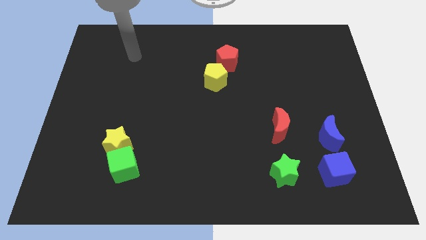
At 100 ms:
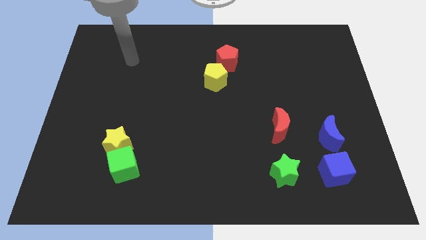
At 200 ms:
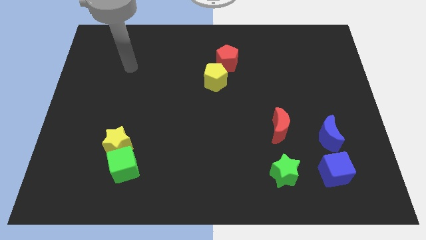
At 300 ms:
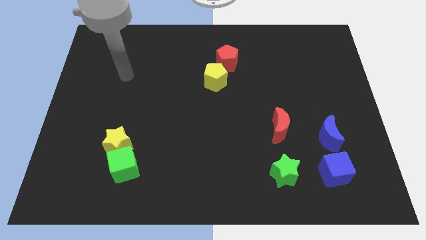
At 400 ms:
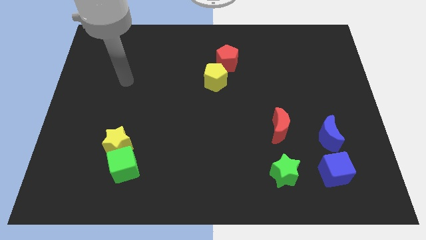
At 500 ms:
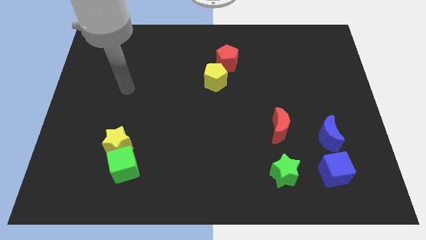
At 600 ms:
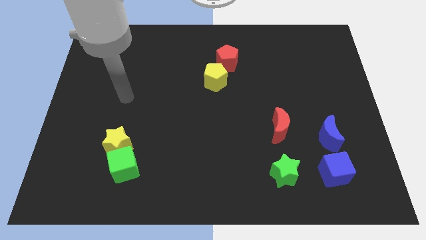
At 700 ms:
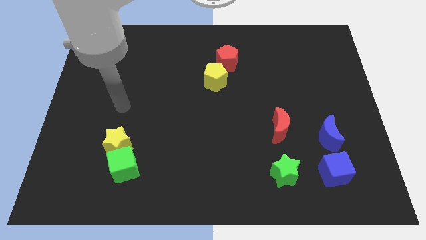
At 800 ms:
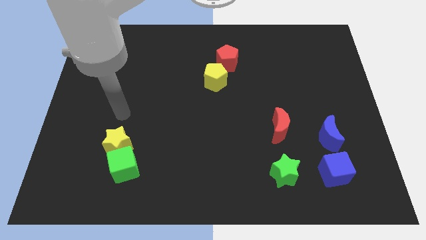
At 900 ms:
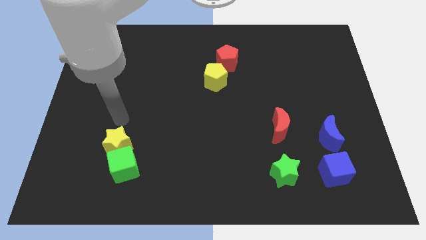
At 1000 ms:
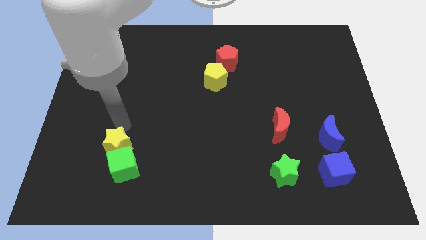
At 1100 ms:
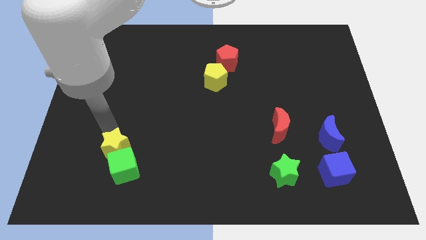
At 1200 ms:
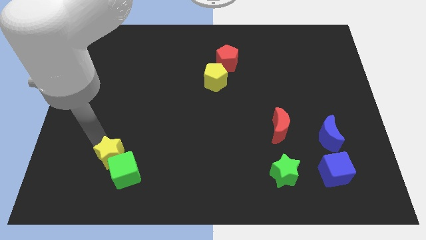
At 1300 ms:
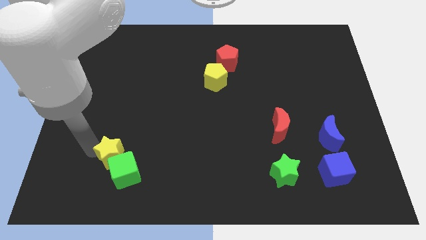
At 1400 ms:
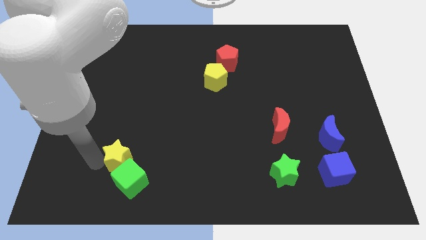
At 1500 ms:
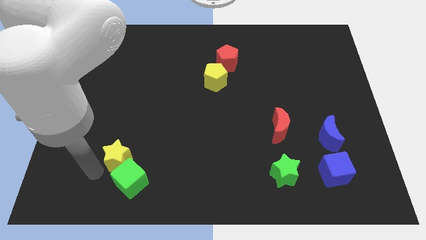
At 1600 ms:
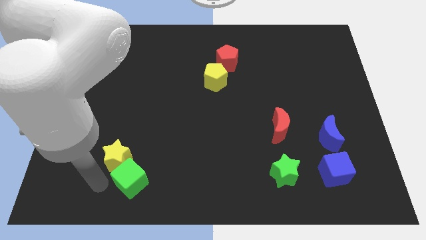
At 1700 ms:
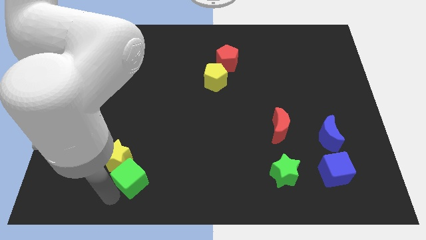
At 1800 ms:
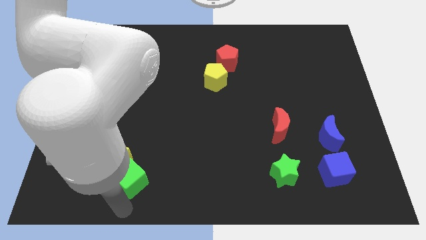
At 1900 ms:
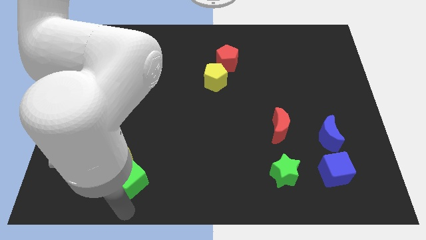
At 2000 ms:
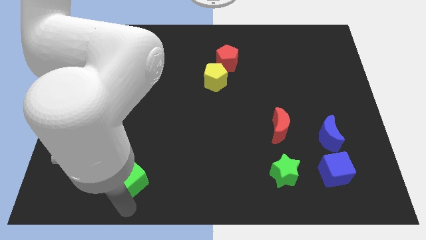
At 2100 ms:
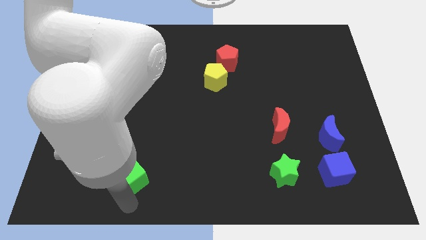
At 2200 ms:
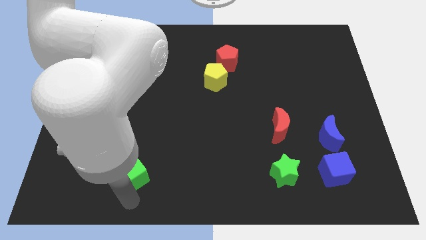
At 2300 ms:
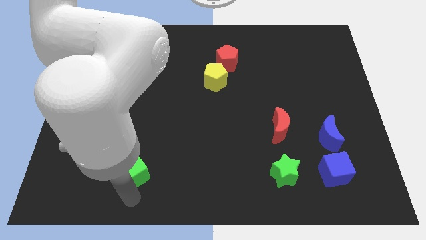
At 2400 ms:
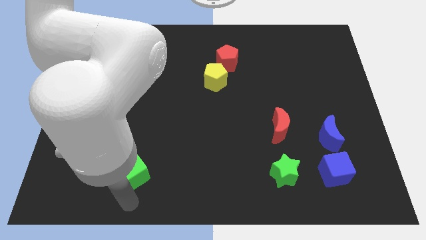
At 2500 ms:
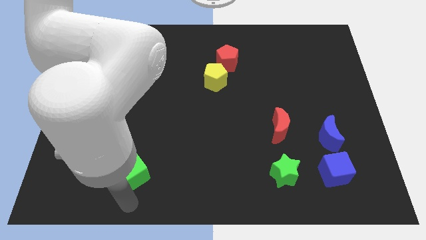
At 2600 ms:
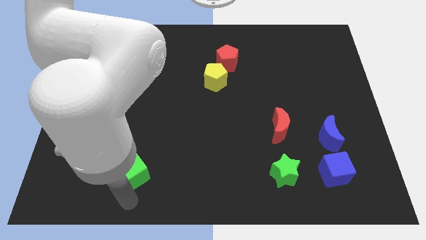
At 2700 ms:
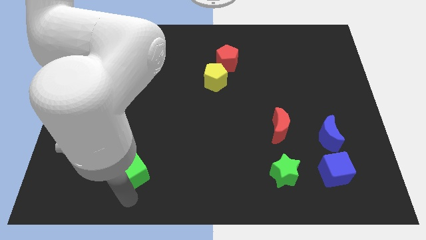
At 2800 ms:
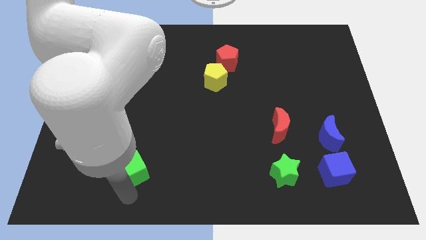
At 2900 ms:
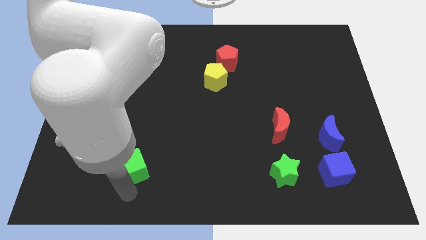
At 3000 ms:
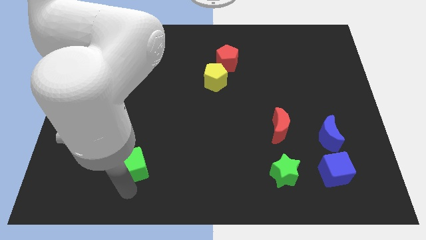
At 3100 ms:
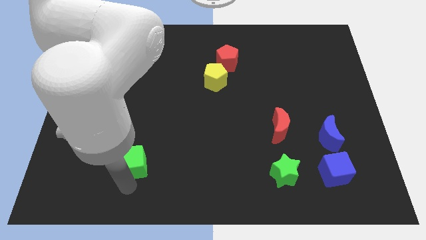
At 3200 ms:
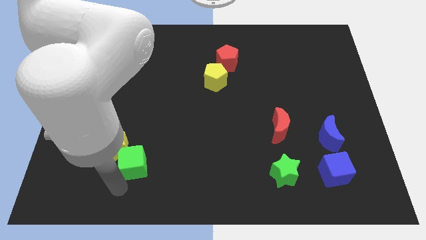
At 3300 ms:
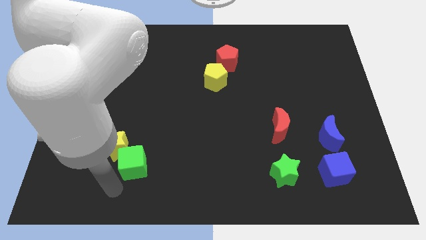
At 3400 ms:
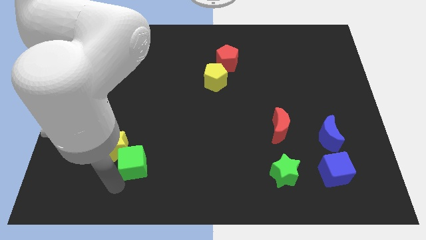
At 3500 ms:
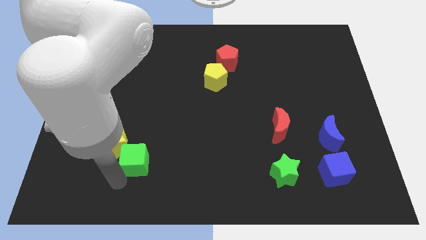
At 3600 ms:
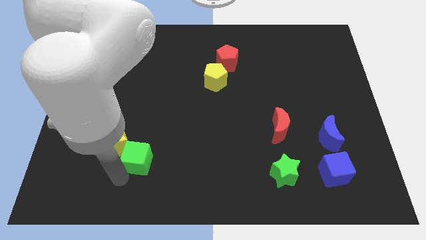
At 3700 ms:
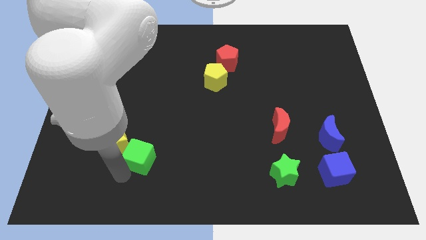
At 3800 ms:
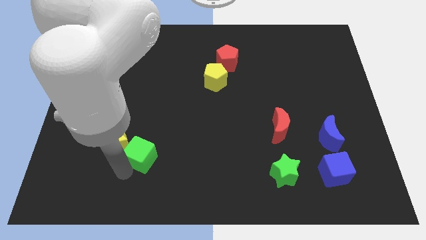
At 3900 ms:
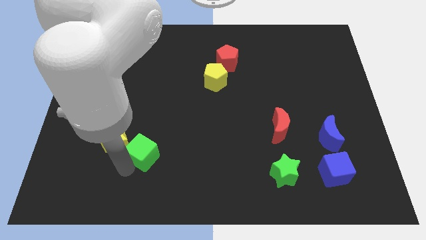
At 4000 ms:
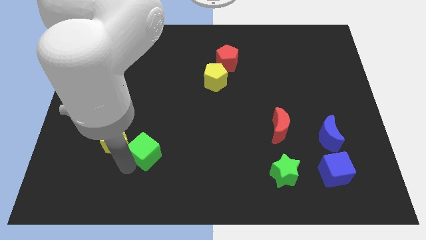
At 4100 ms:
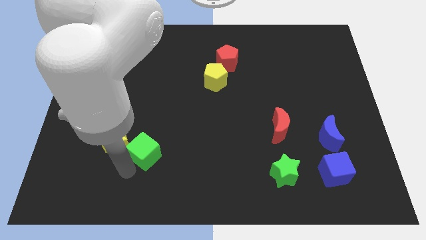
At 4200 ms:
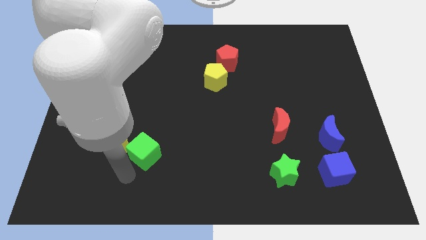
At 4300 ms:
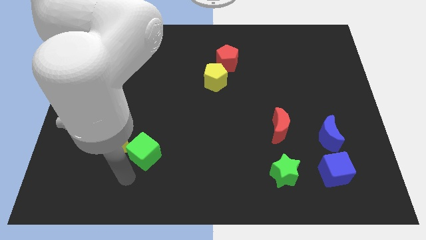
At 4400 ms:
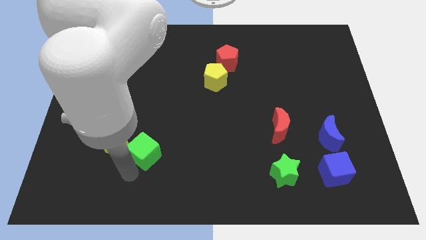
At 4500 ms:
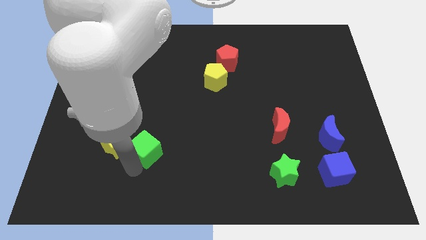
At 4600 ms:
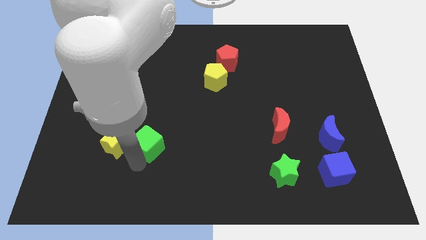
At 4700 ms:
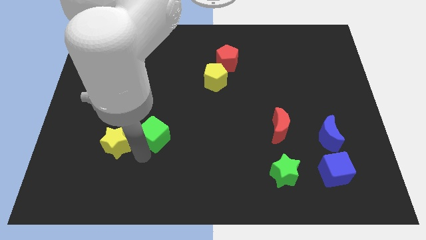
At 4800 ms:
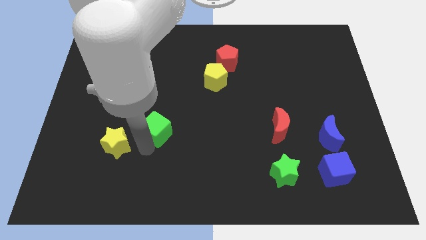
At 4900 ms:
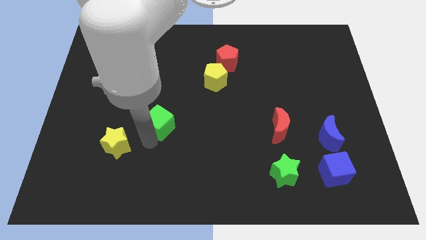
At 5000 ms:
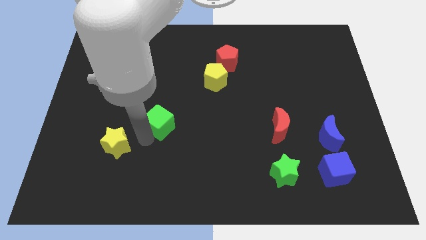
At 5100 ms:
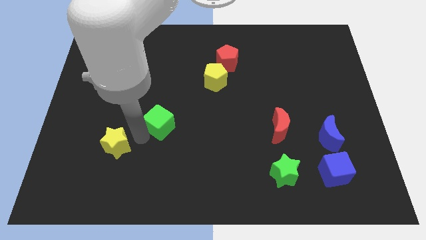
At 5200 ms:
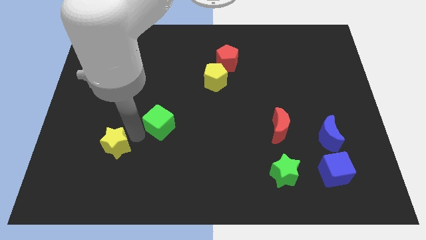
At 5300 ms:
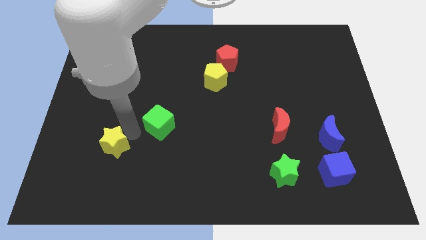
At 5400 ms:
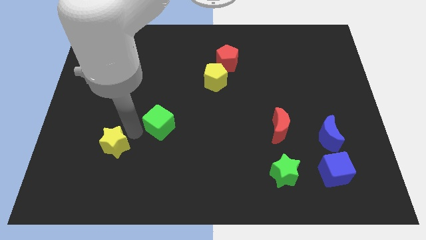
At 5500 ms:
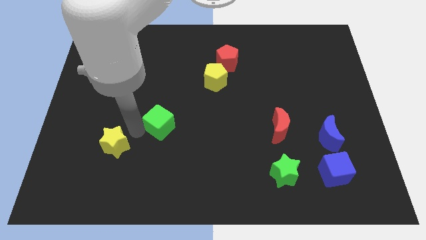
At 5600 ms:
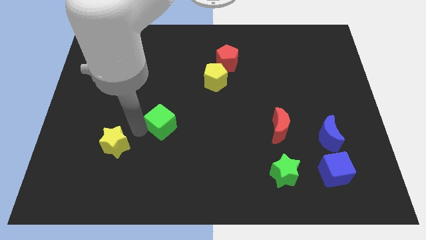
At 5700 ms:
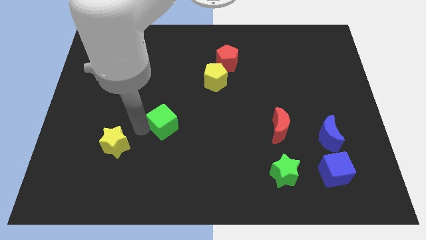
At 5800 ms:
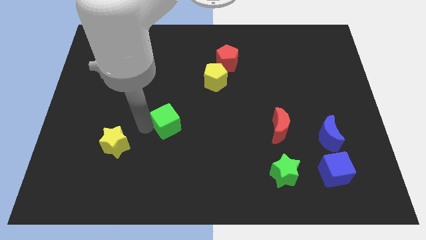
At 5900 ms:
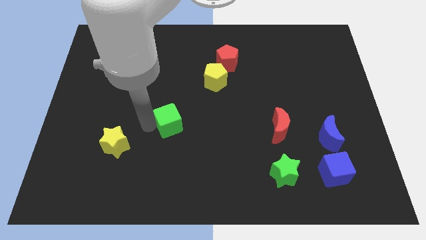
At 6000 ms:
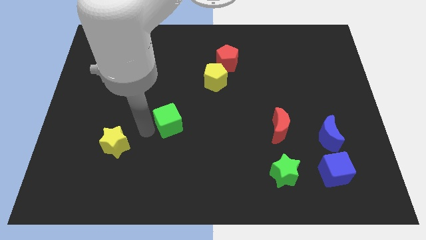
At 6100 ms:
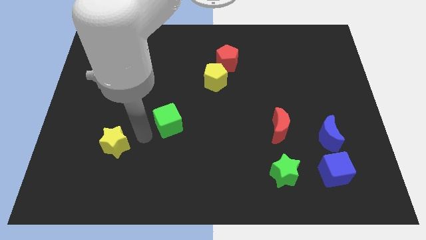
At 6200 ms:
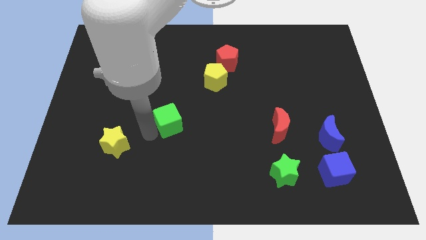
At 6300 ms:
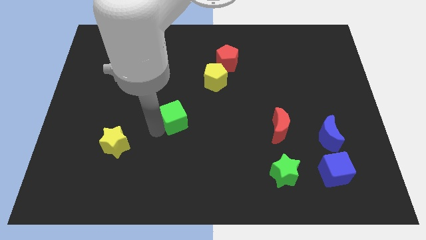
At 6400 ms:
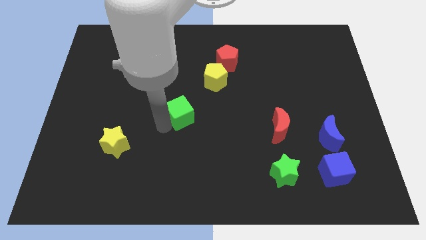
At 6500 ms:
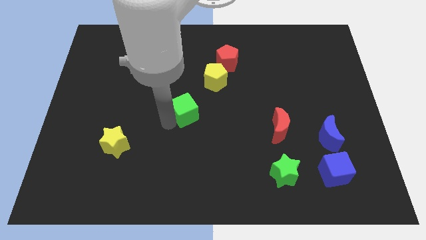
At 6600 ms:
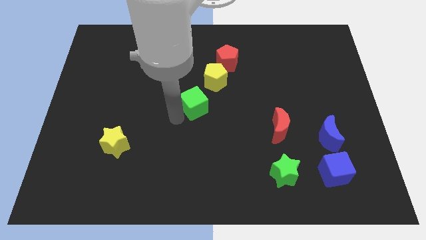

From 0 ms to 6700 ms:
slide the green cube diagonally up and right

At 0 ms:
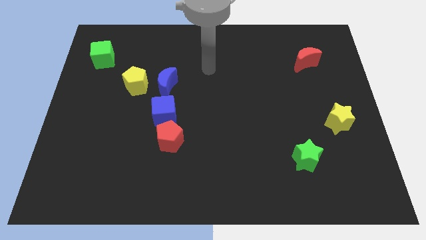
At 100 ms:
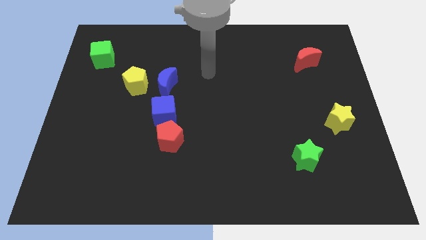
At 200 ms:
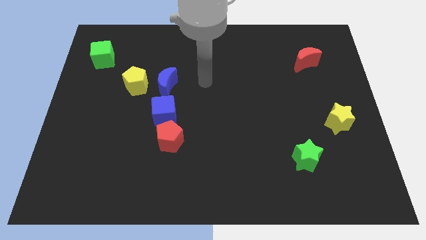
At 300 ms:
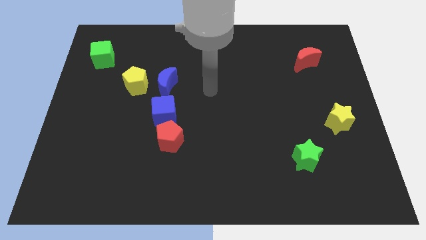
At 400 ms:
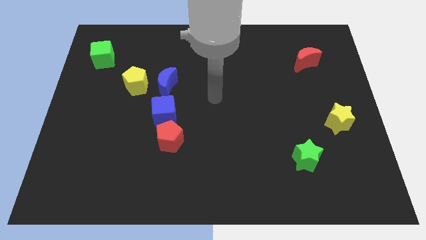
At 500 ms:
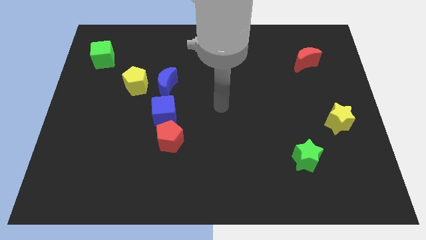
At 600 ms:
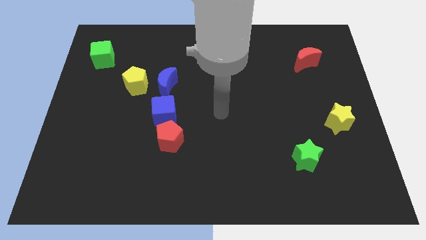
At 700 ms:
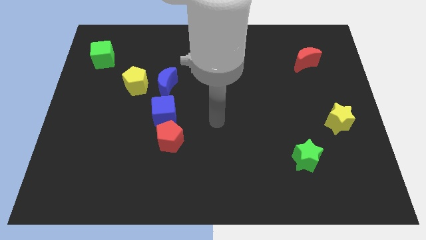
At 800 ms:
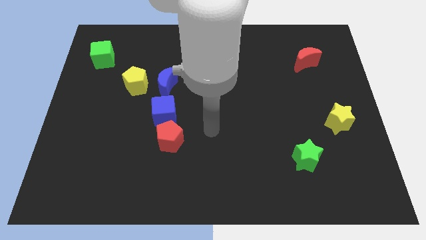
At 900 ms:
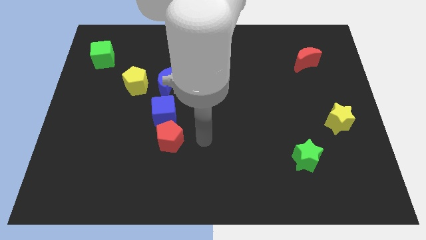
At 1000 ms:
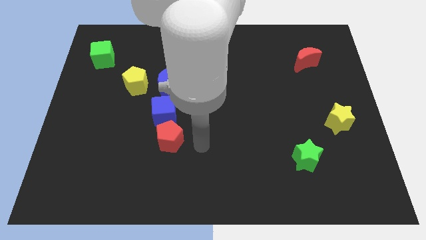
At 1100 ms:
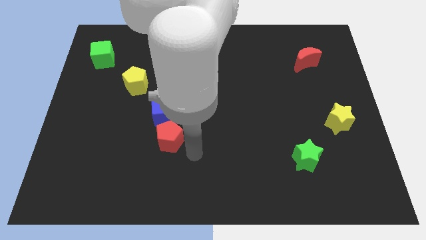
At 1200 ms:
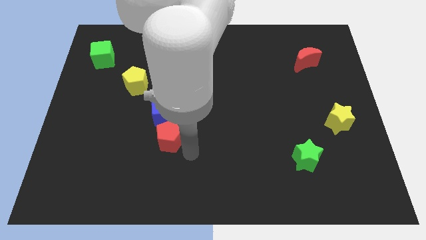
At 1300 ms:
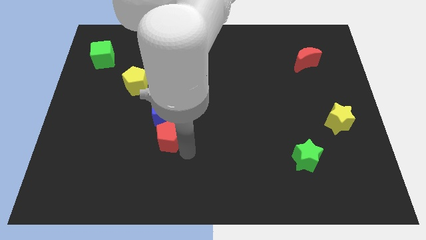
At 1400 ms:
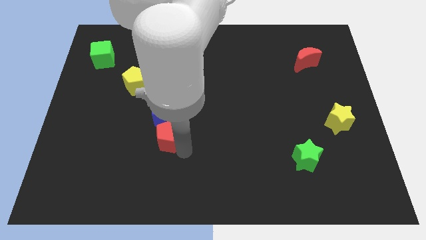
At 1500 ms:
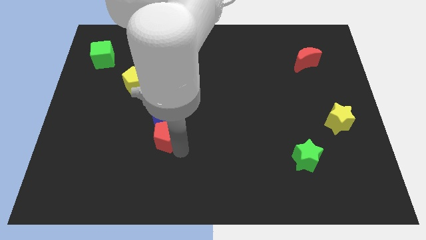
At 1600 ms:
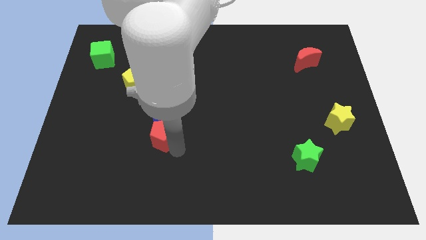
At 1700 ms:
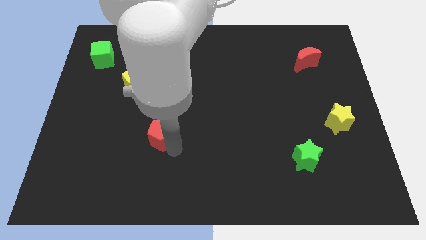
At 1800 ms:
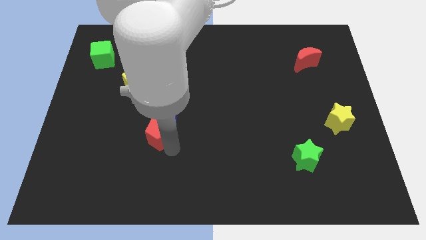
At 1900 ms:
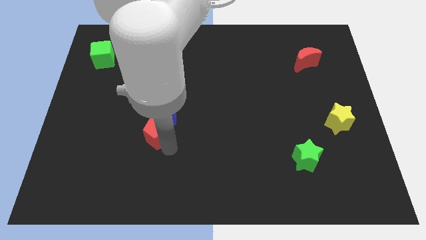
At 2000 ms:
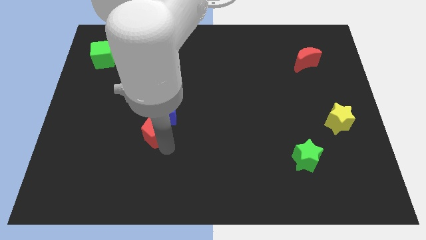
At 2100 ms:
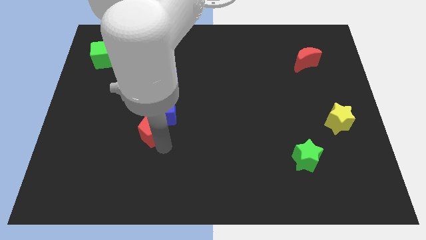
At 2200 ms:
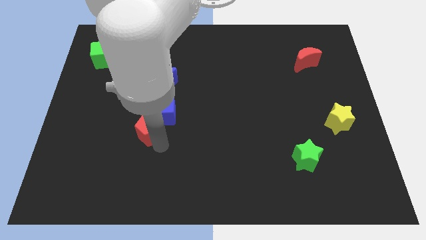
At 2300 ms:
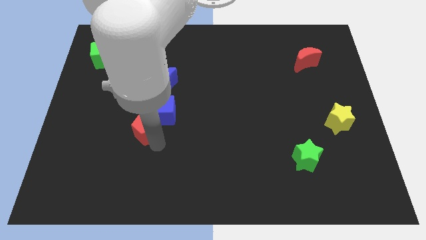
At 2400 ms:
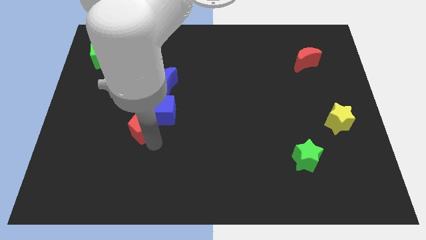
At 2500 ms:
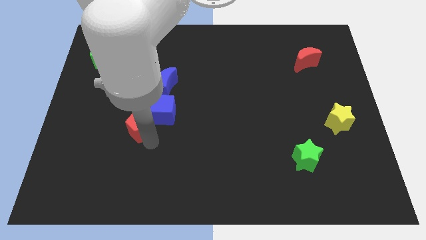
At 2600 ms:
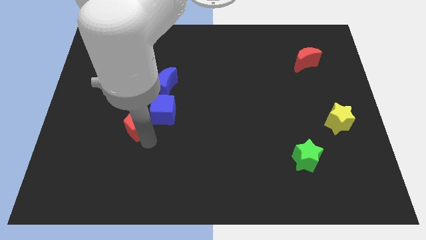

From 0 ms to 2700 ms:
move the red pentagon a little up and to the left
